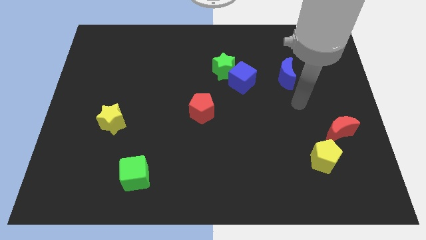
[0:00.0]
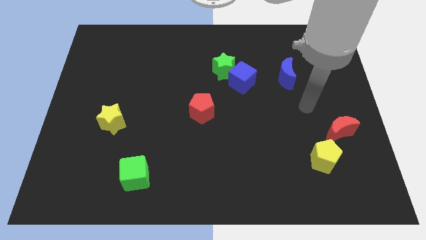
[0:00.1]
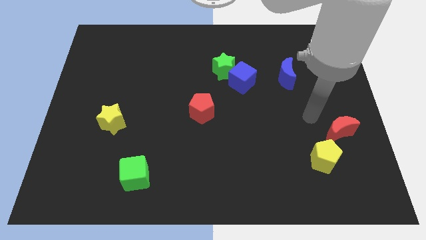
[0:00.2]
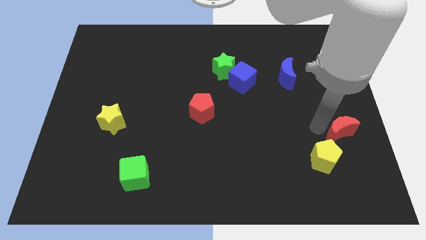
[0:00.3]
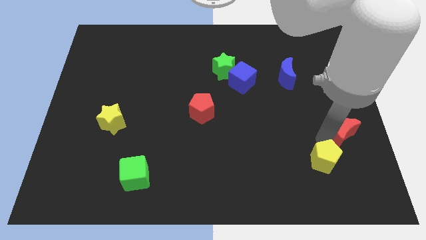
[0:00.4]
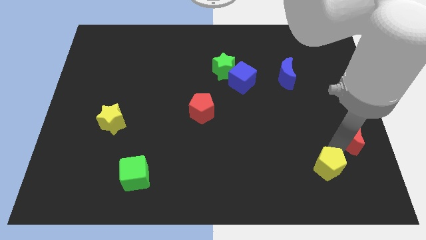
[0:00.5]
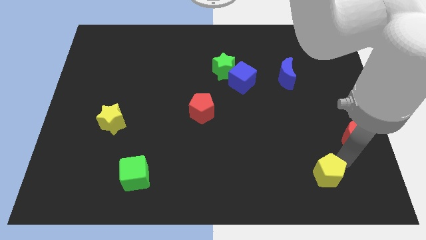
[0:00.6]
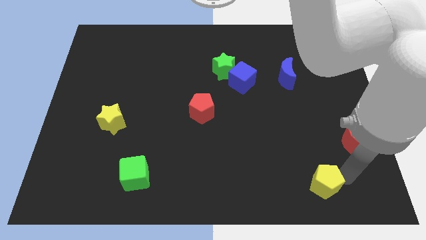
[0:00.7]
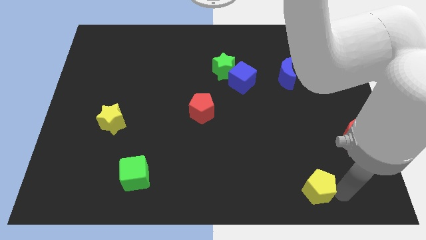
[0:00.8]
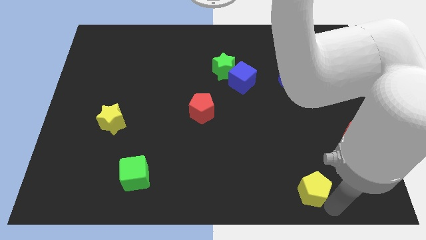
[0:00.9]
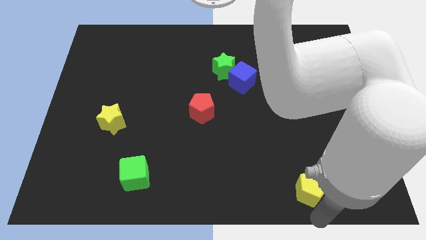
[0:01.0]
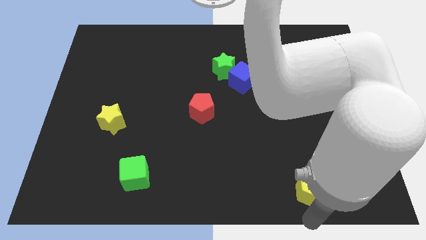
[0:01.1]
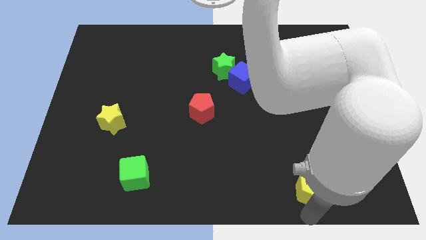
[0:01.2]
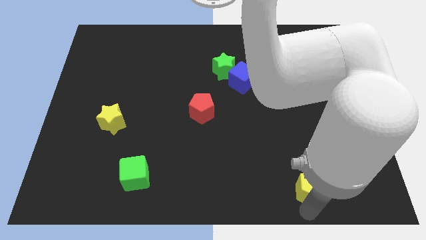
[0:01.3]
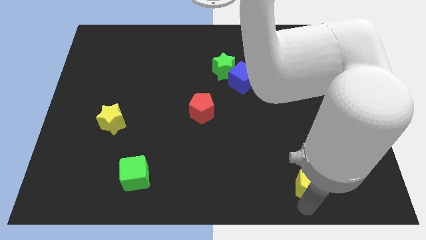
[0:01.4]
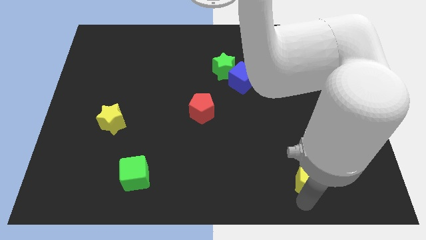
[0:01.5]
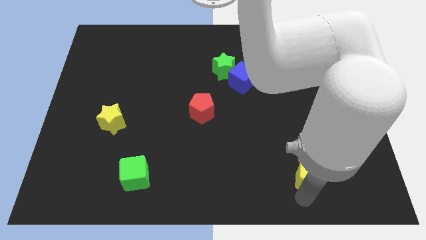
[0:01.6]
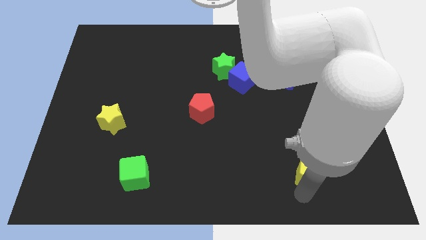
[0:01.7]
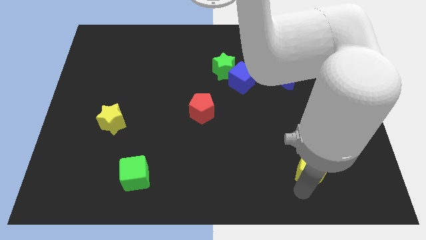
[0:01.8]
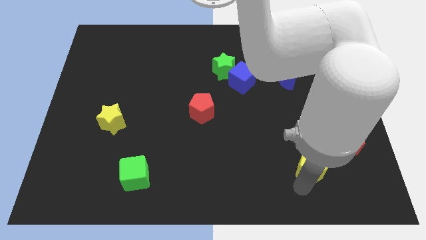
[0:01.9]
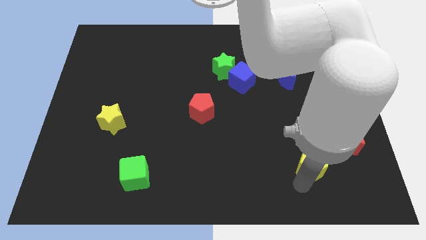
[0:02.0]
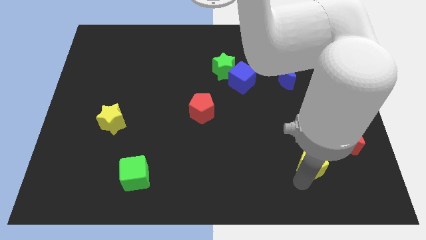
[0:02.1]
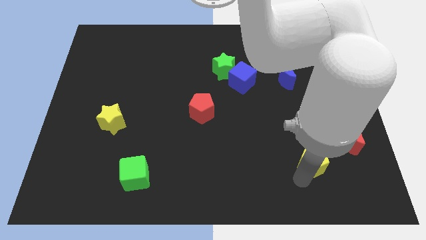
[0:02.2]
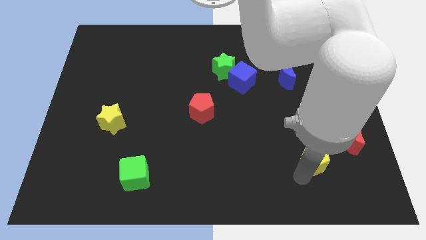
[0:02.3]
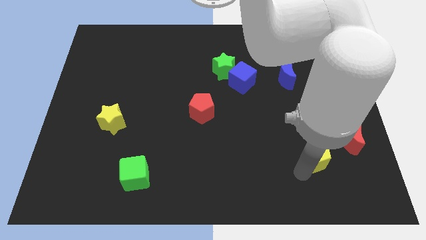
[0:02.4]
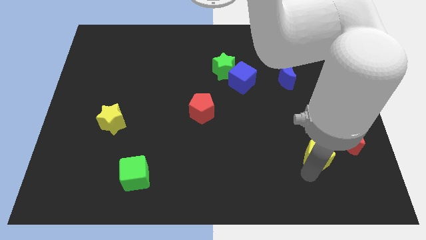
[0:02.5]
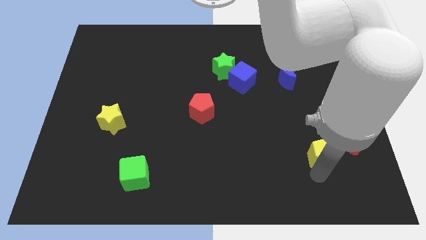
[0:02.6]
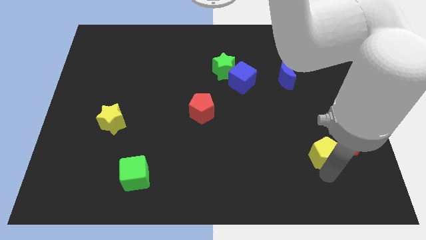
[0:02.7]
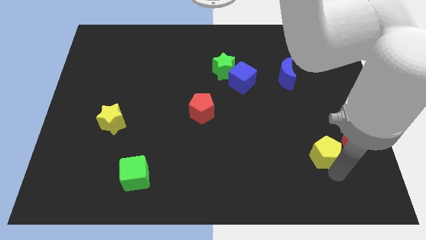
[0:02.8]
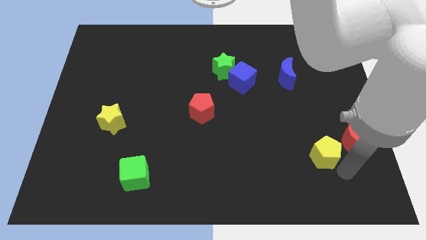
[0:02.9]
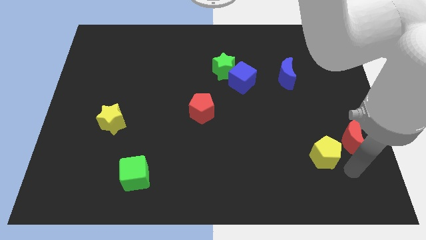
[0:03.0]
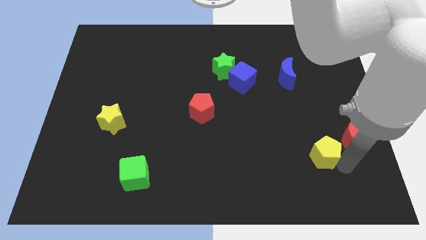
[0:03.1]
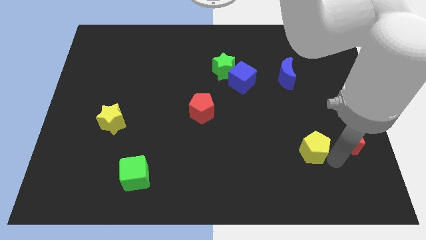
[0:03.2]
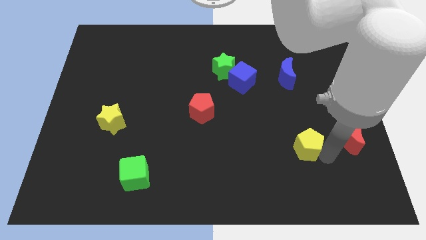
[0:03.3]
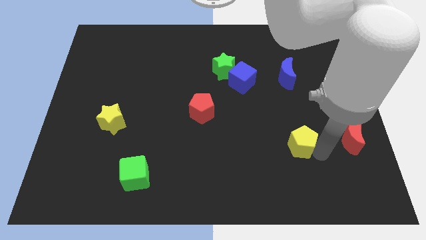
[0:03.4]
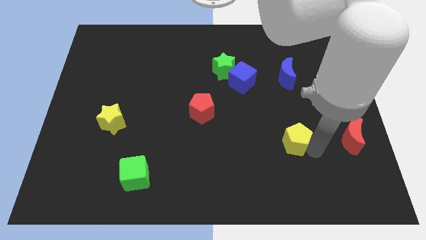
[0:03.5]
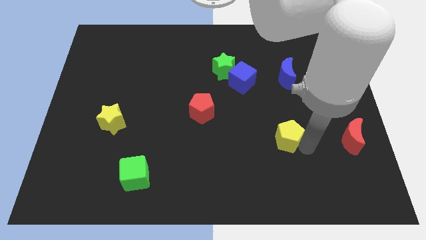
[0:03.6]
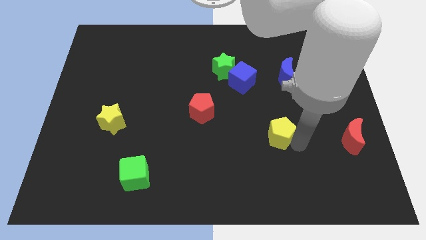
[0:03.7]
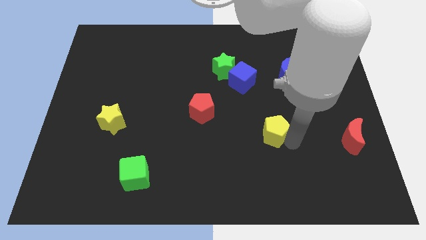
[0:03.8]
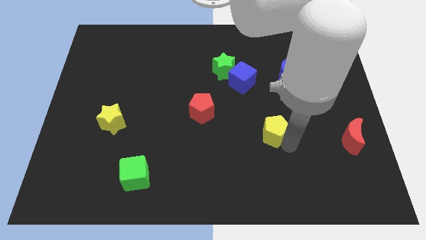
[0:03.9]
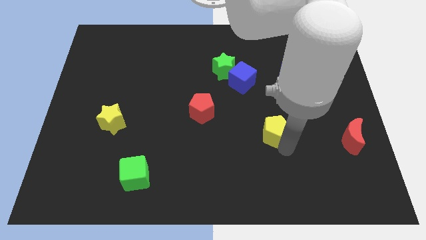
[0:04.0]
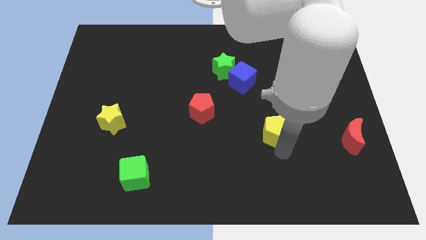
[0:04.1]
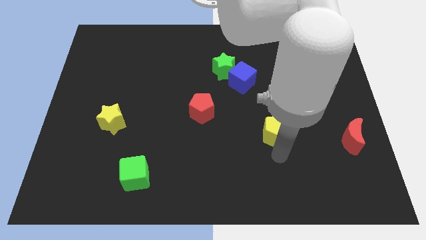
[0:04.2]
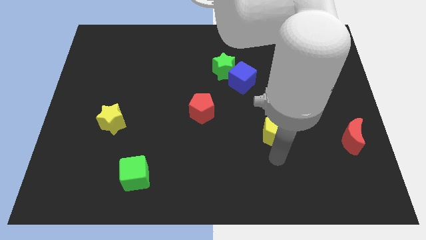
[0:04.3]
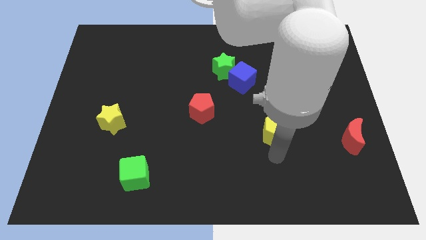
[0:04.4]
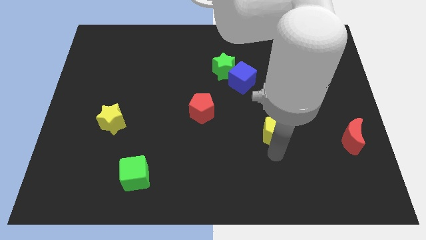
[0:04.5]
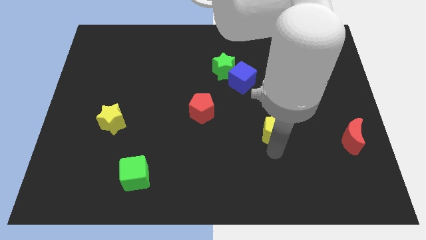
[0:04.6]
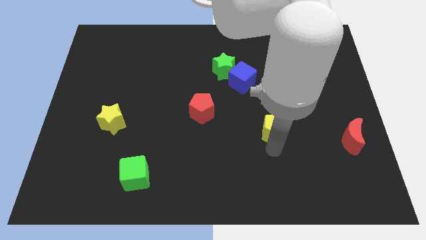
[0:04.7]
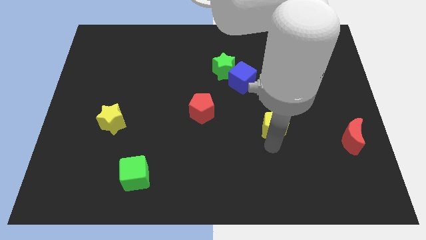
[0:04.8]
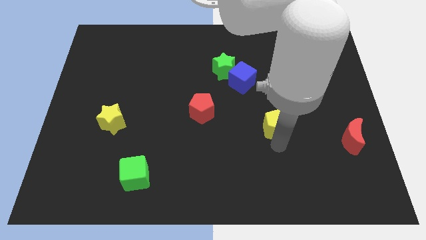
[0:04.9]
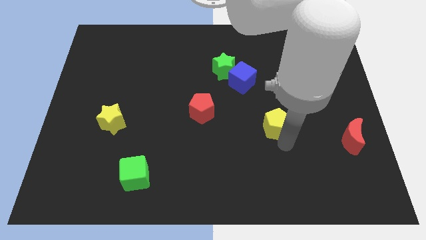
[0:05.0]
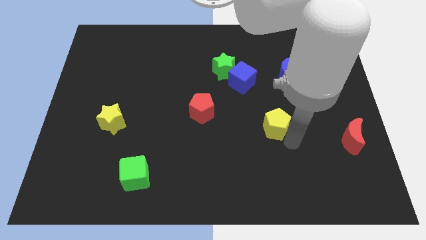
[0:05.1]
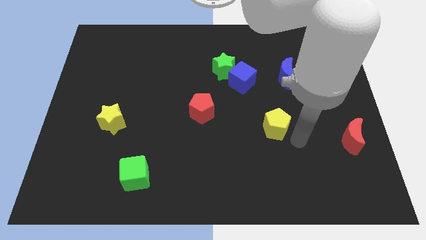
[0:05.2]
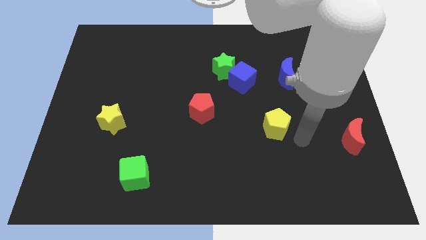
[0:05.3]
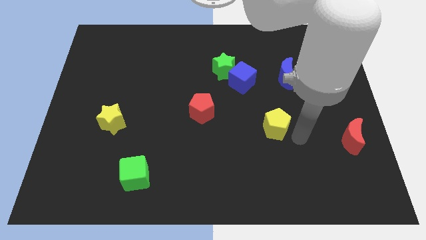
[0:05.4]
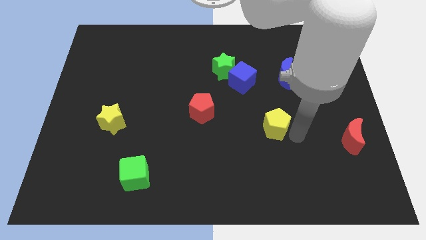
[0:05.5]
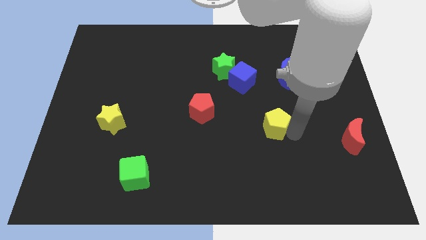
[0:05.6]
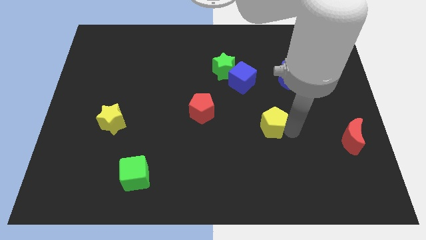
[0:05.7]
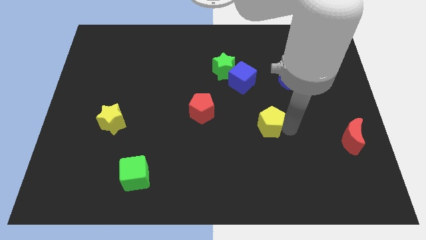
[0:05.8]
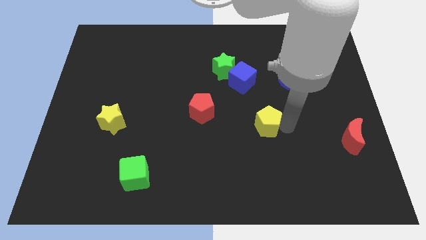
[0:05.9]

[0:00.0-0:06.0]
slide the yellow pentagon just right of the red pentagon

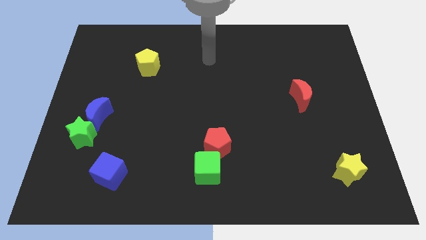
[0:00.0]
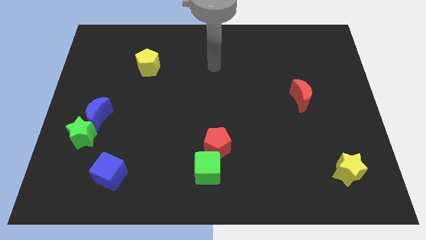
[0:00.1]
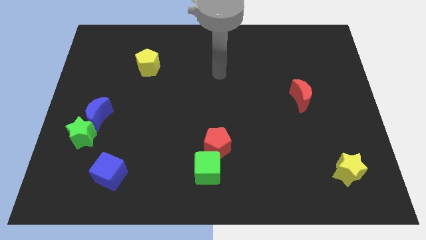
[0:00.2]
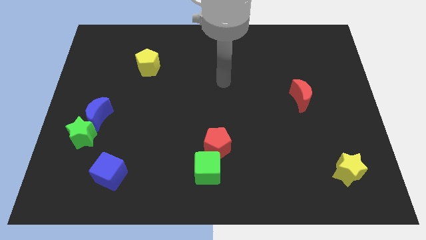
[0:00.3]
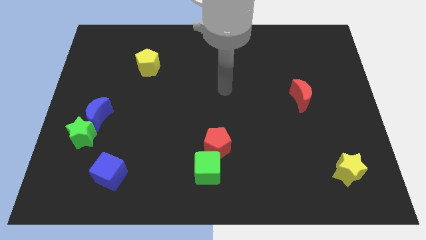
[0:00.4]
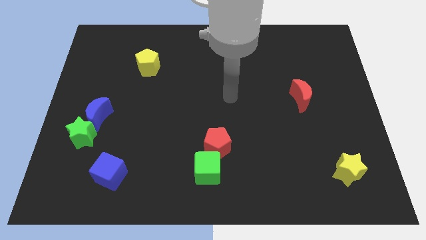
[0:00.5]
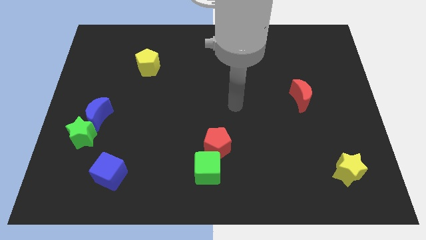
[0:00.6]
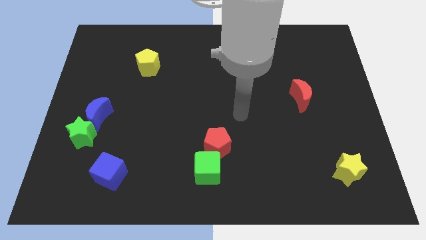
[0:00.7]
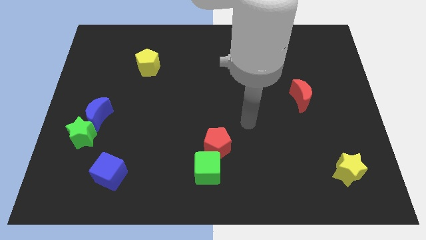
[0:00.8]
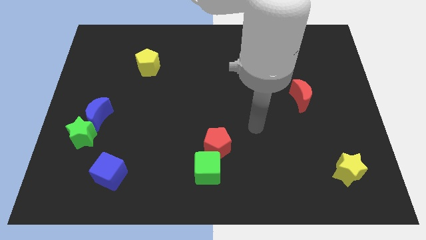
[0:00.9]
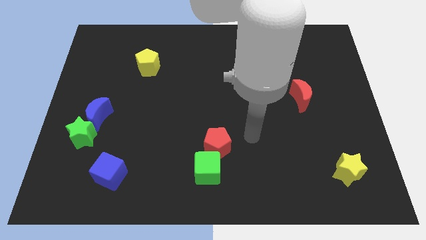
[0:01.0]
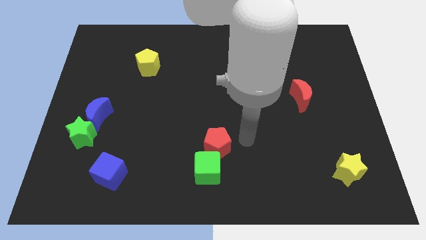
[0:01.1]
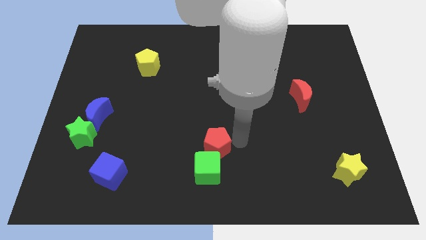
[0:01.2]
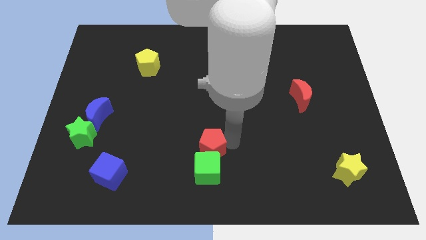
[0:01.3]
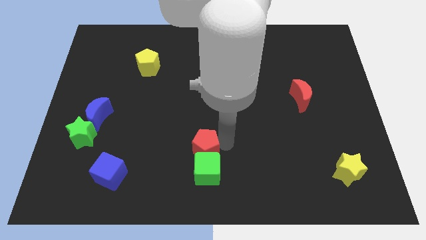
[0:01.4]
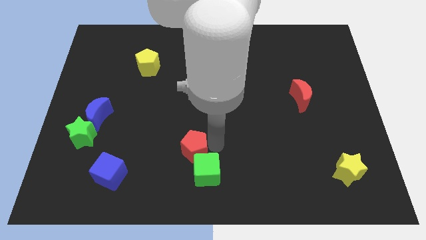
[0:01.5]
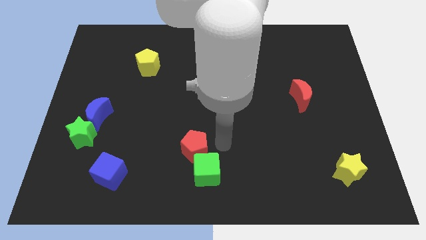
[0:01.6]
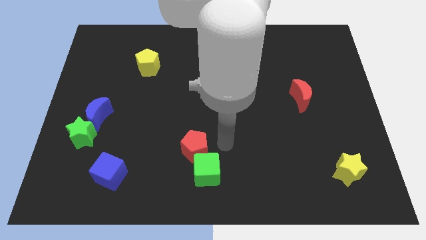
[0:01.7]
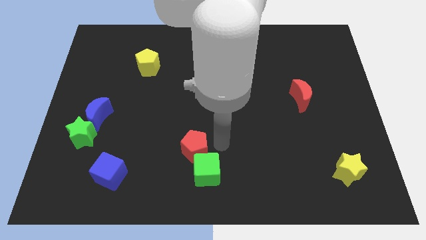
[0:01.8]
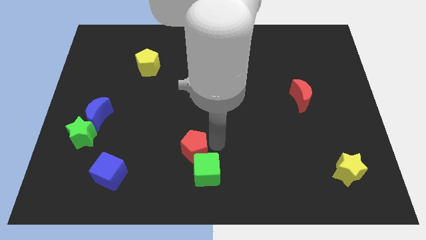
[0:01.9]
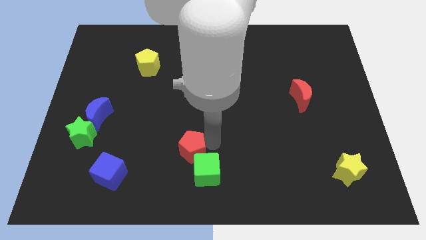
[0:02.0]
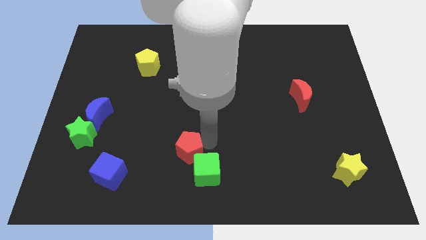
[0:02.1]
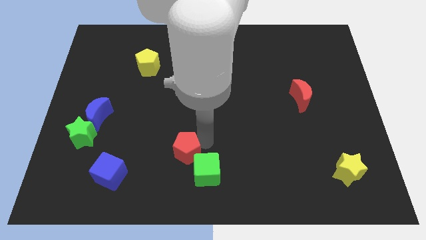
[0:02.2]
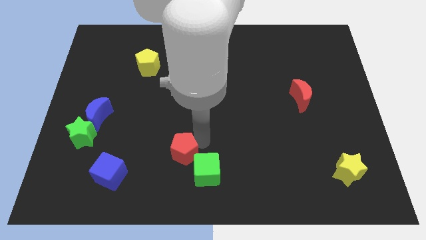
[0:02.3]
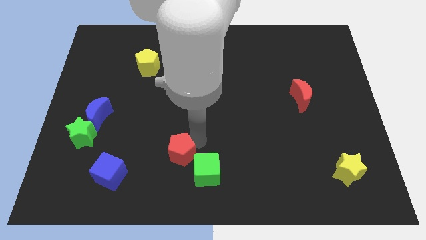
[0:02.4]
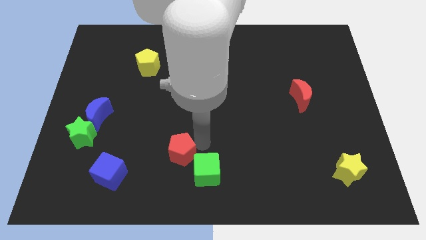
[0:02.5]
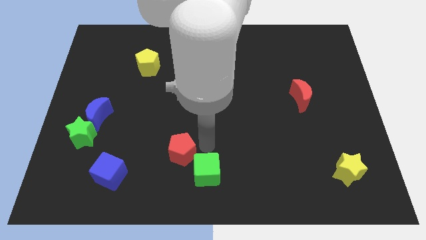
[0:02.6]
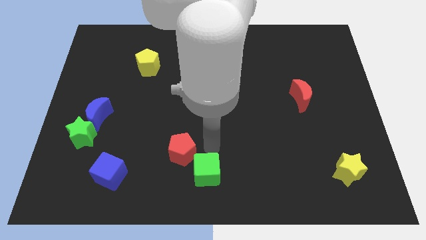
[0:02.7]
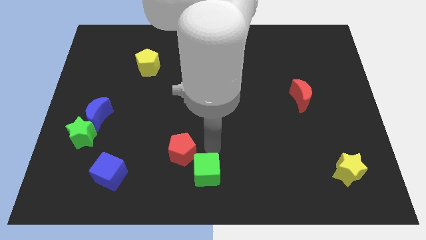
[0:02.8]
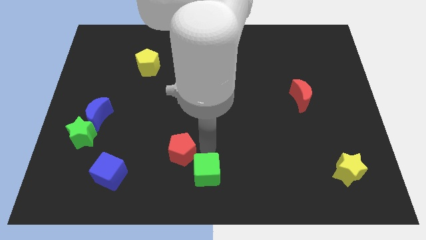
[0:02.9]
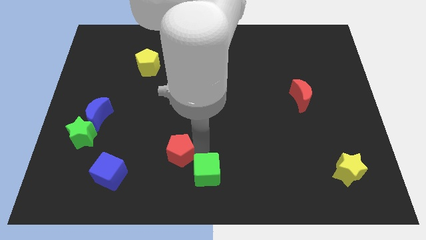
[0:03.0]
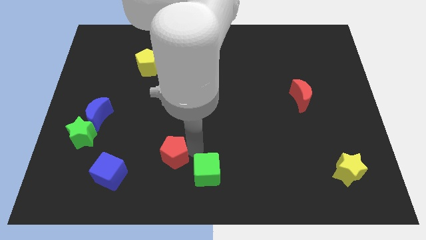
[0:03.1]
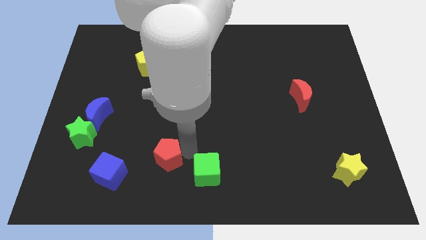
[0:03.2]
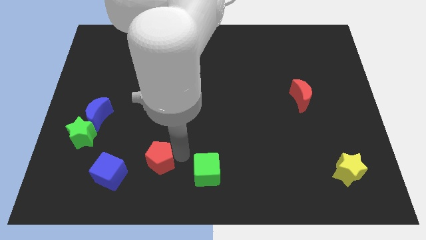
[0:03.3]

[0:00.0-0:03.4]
slide the red pentagon to the top right of the blue cube
